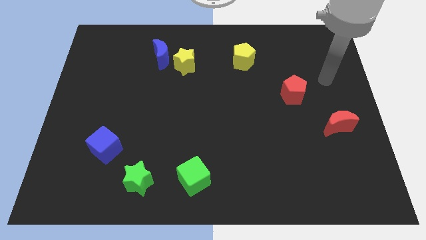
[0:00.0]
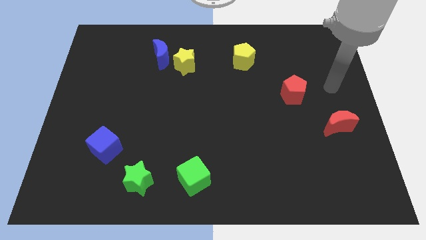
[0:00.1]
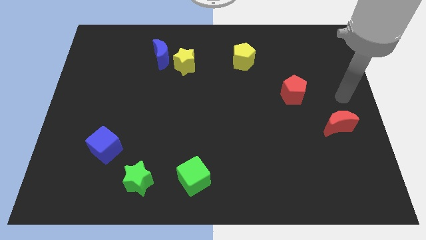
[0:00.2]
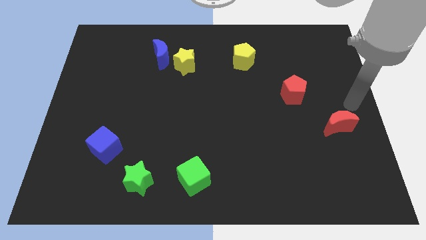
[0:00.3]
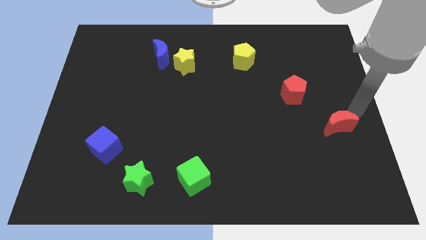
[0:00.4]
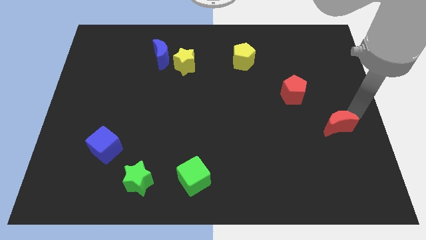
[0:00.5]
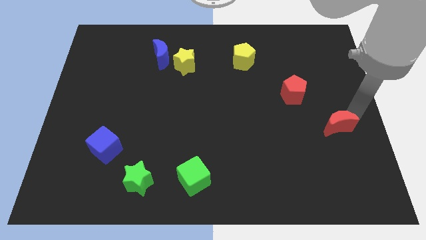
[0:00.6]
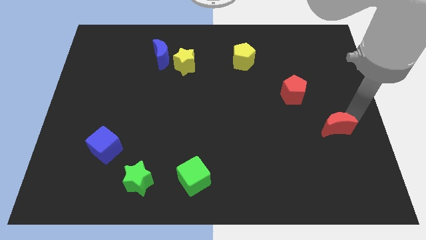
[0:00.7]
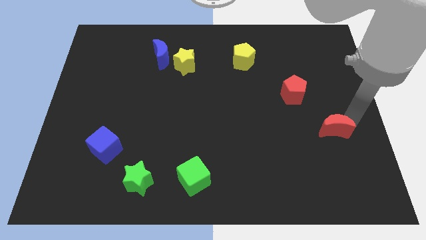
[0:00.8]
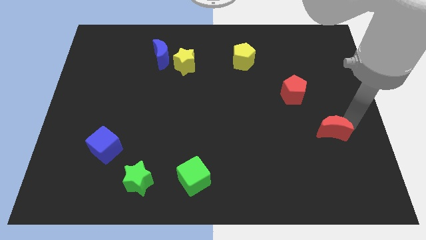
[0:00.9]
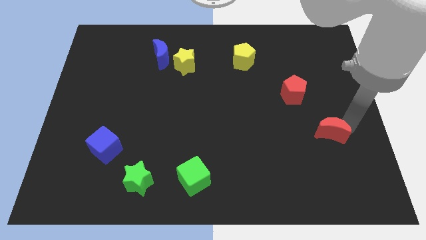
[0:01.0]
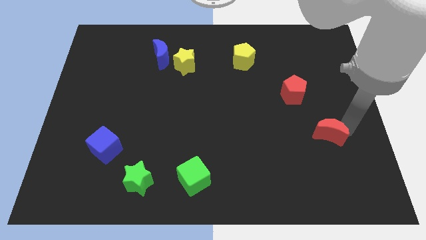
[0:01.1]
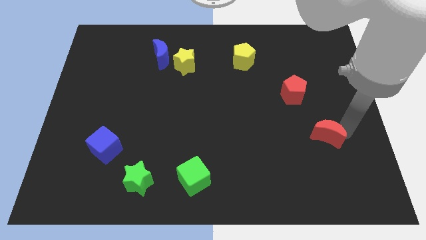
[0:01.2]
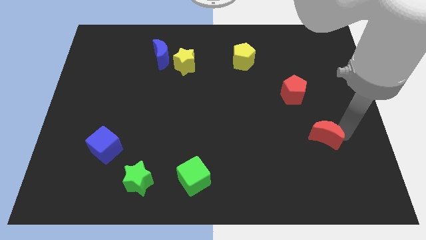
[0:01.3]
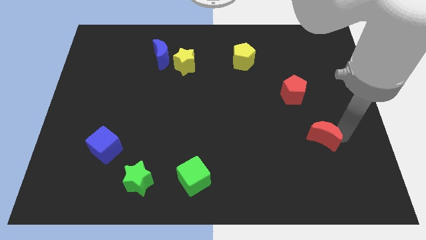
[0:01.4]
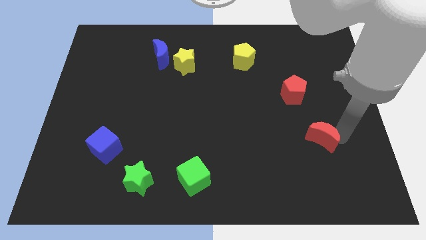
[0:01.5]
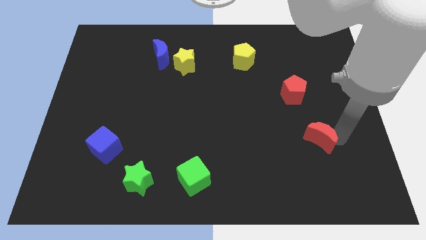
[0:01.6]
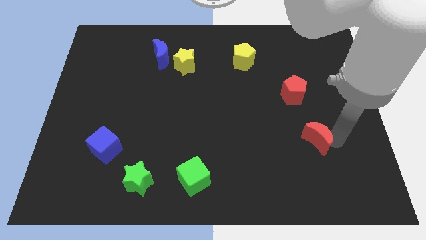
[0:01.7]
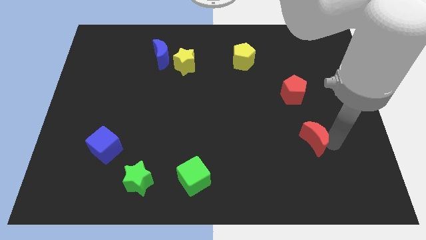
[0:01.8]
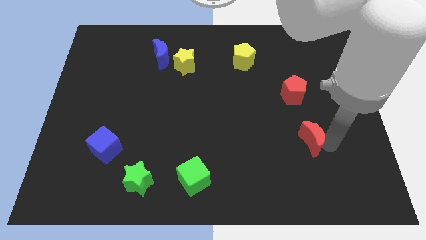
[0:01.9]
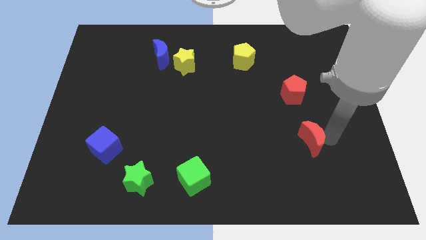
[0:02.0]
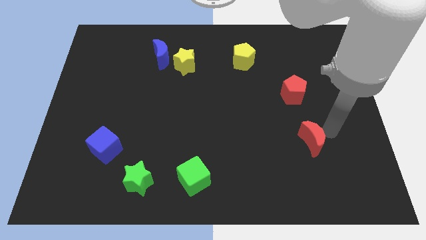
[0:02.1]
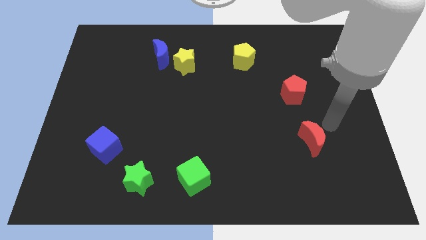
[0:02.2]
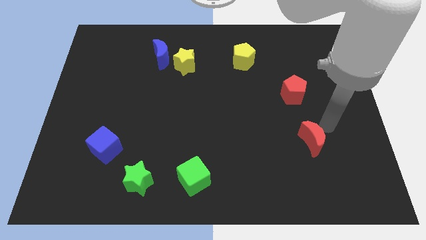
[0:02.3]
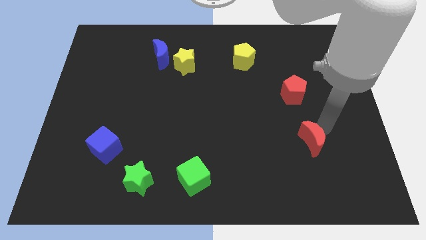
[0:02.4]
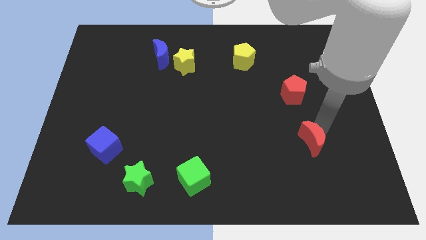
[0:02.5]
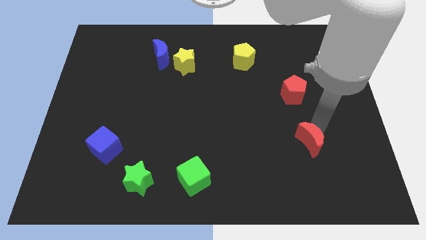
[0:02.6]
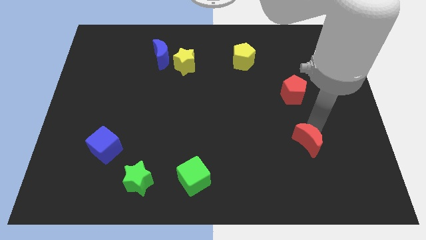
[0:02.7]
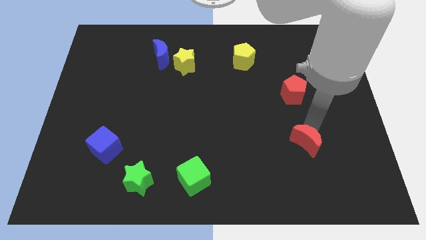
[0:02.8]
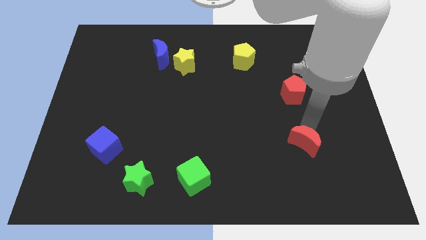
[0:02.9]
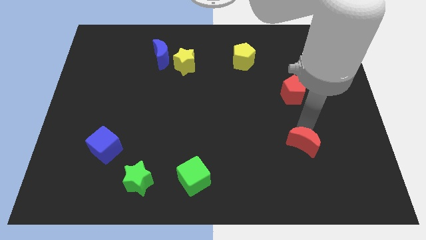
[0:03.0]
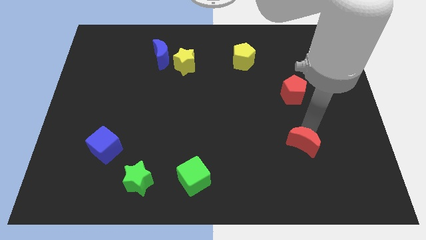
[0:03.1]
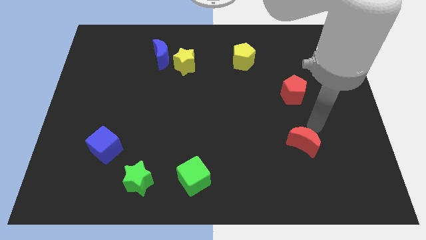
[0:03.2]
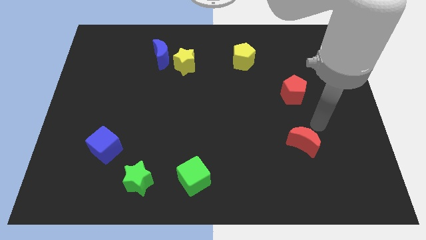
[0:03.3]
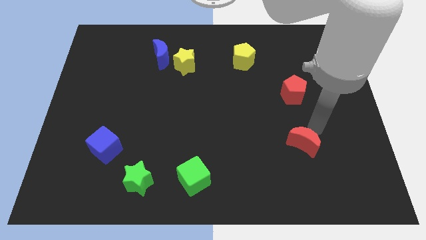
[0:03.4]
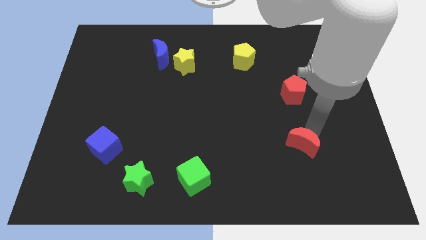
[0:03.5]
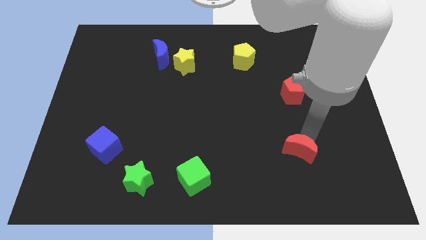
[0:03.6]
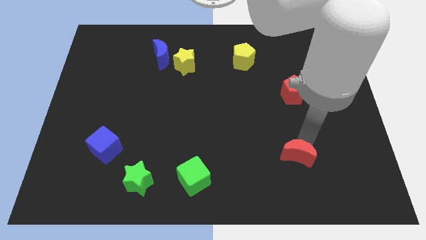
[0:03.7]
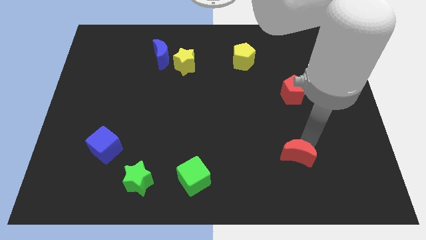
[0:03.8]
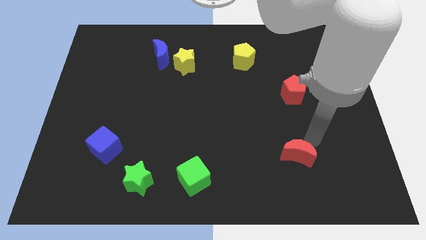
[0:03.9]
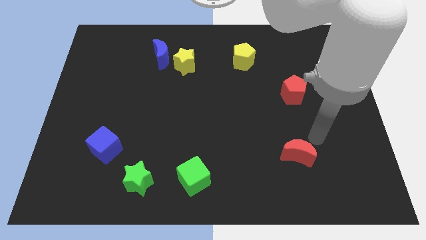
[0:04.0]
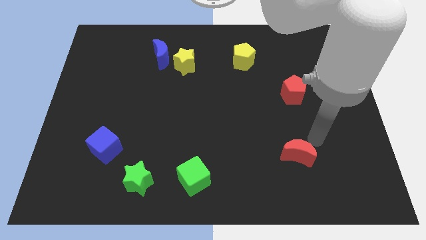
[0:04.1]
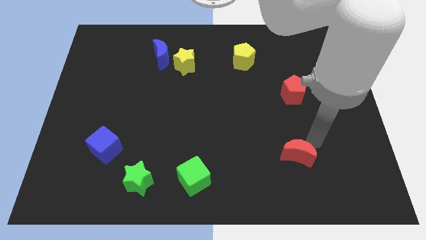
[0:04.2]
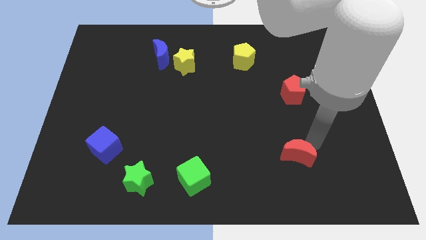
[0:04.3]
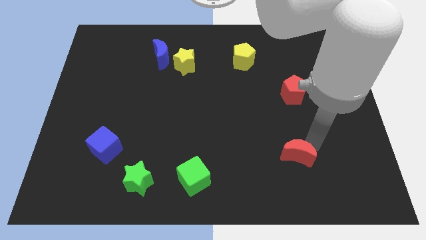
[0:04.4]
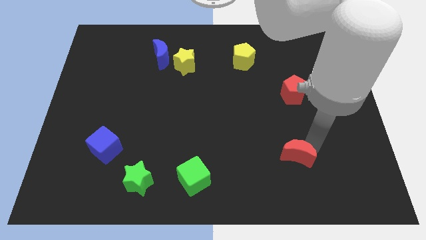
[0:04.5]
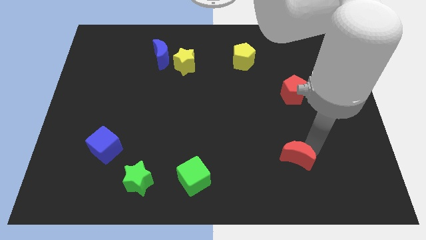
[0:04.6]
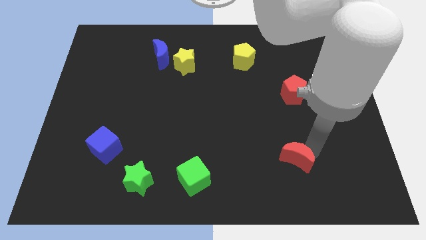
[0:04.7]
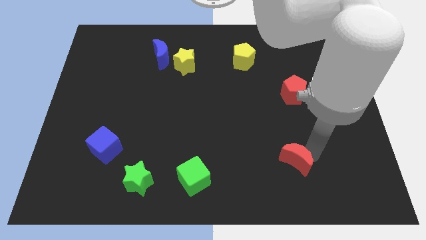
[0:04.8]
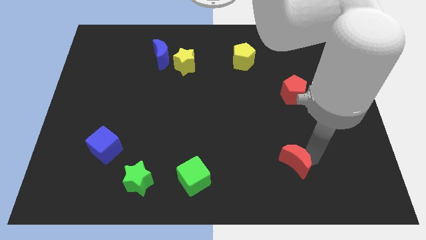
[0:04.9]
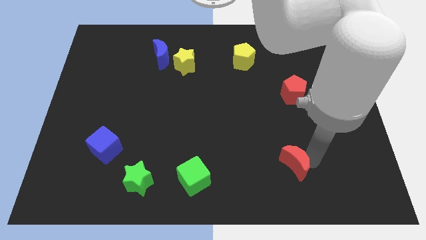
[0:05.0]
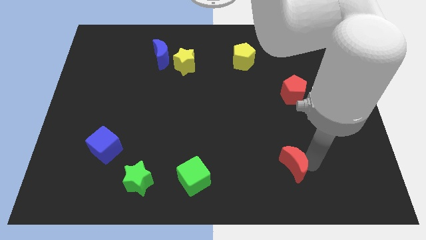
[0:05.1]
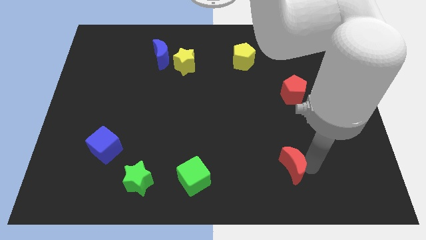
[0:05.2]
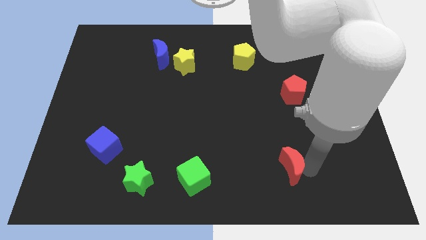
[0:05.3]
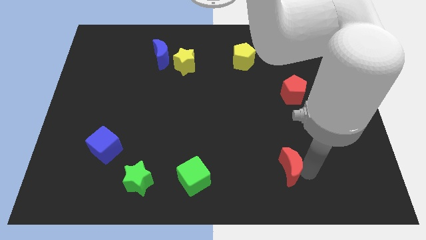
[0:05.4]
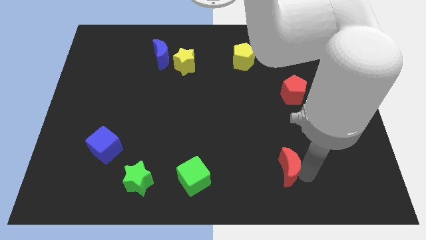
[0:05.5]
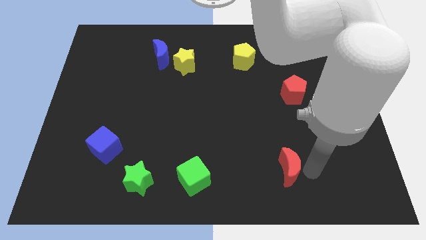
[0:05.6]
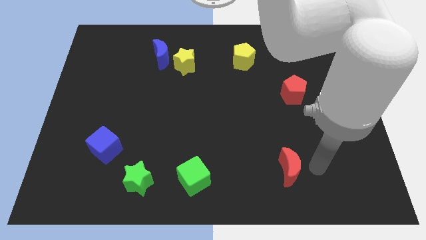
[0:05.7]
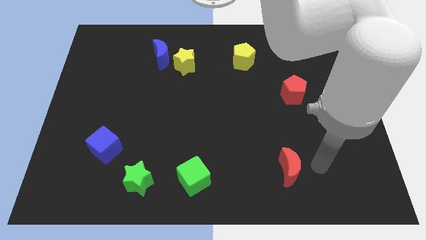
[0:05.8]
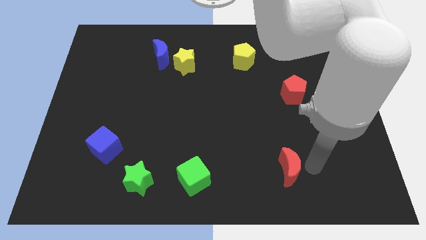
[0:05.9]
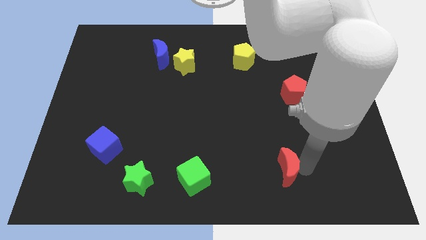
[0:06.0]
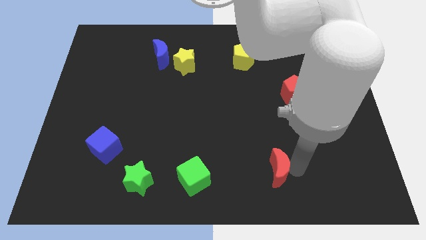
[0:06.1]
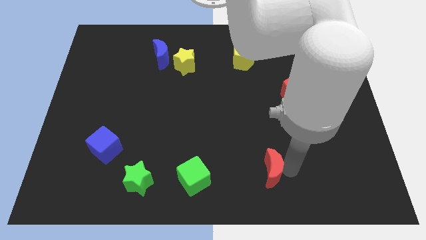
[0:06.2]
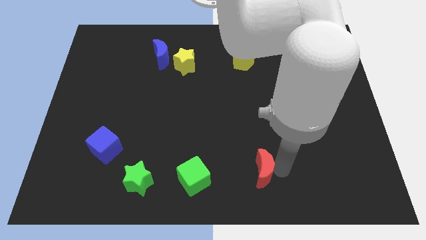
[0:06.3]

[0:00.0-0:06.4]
push the red moon right of the green cube
